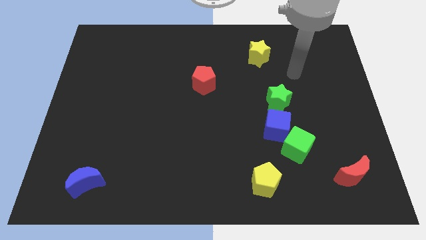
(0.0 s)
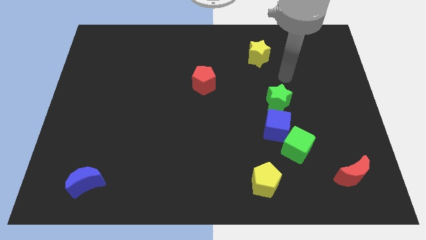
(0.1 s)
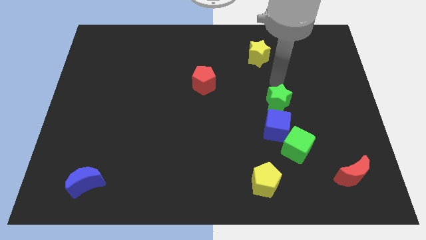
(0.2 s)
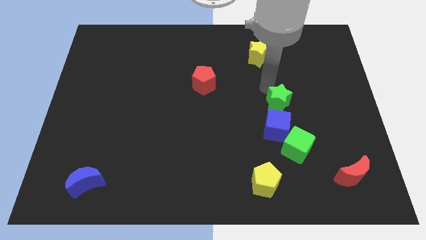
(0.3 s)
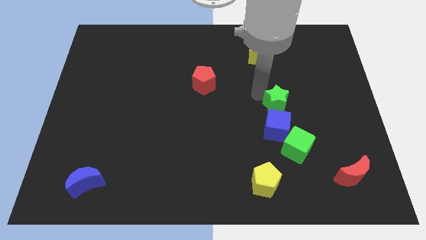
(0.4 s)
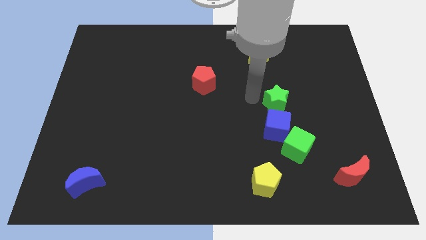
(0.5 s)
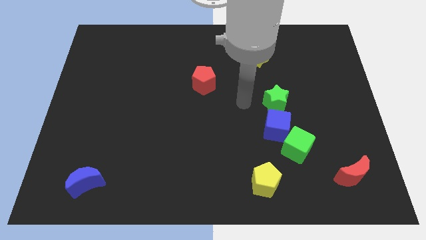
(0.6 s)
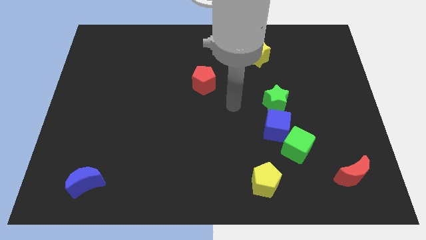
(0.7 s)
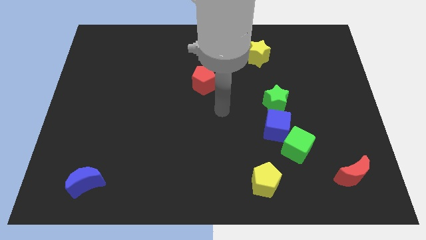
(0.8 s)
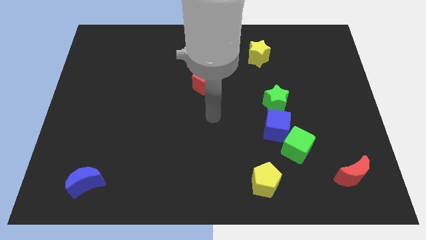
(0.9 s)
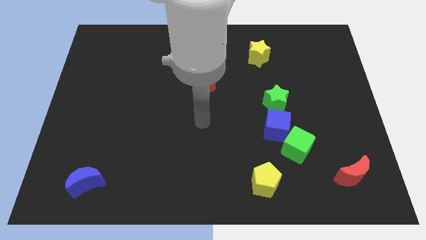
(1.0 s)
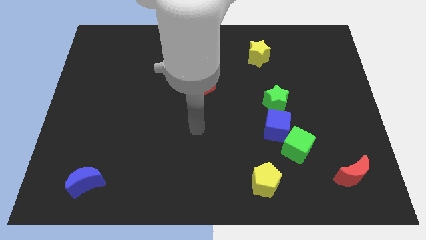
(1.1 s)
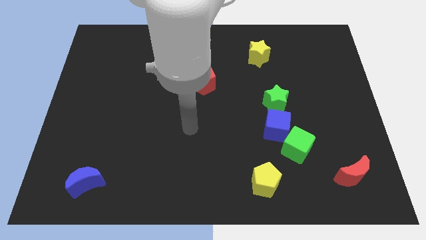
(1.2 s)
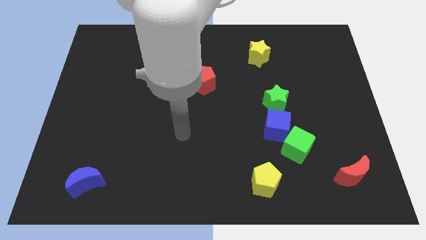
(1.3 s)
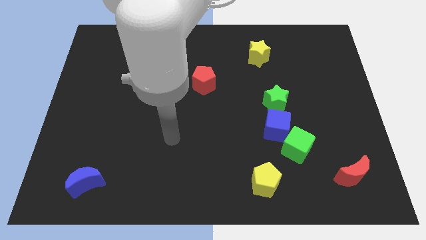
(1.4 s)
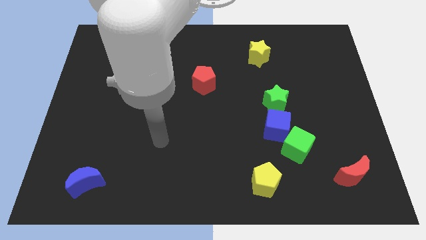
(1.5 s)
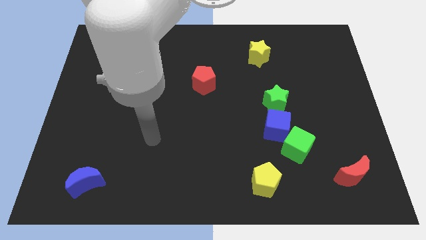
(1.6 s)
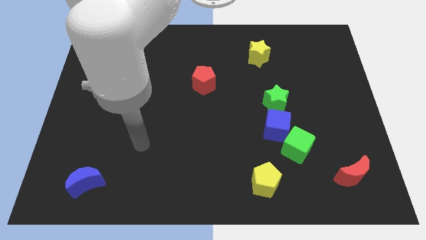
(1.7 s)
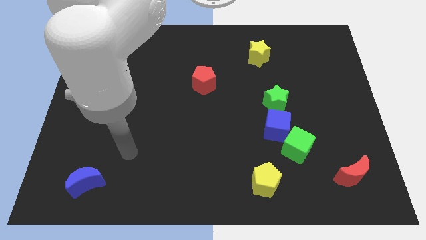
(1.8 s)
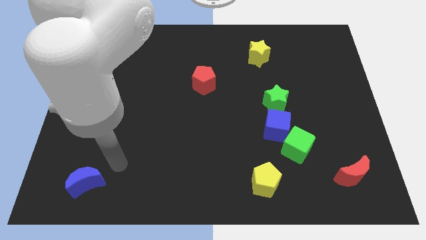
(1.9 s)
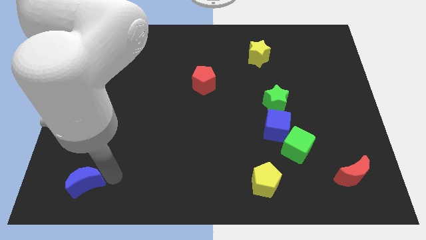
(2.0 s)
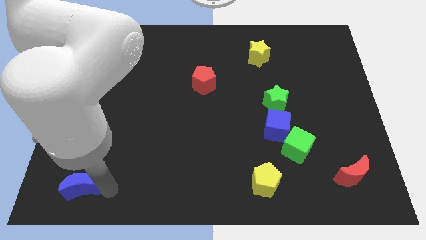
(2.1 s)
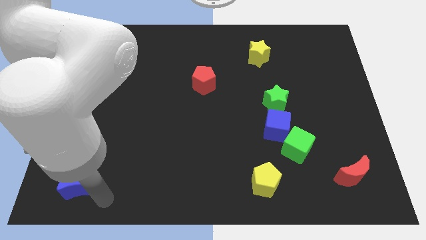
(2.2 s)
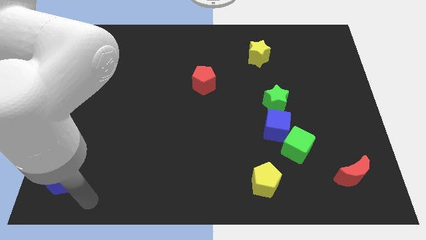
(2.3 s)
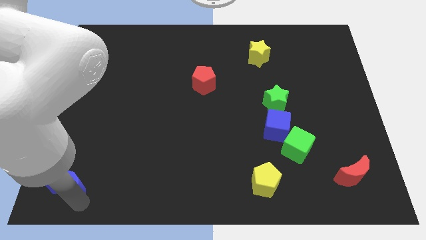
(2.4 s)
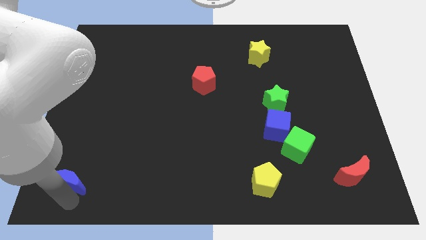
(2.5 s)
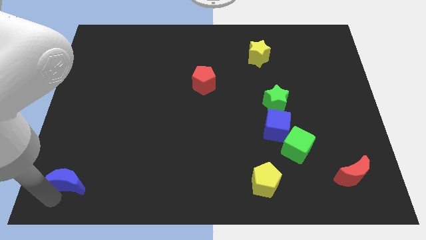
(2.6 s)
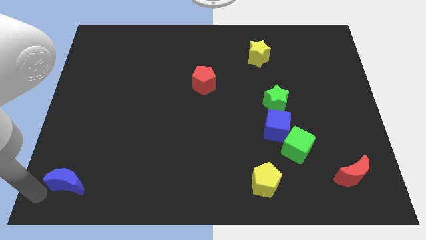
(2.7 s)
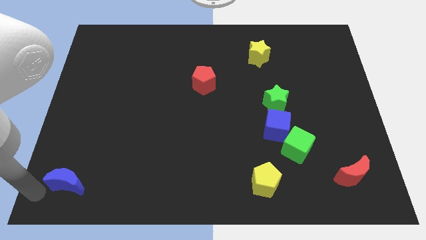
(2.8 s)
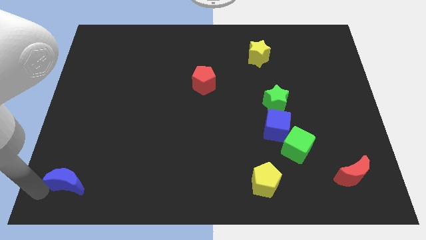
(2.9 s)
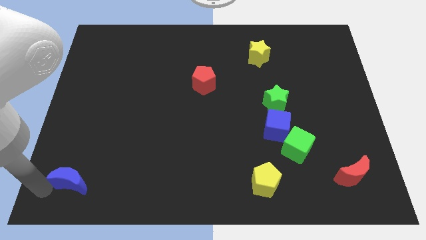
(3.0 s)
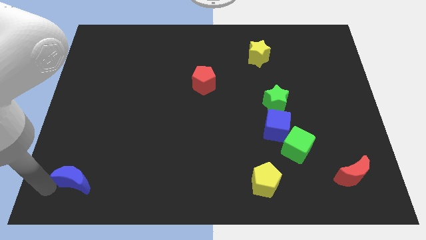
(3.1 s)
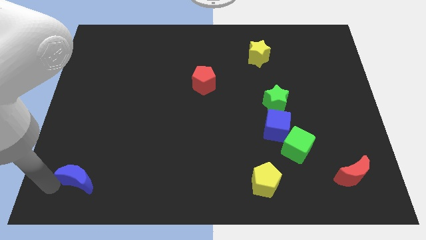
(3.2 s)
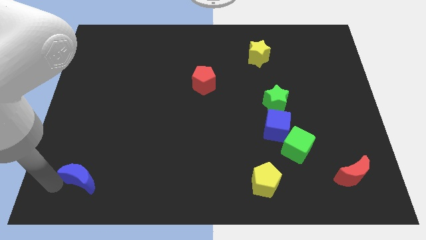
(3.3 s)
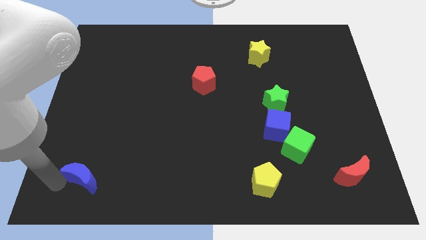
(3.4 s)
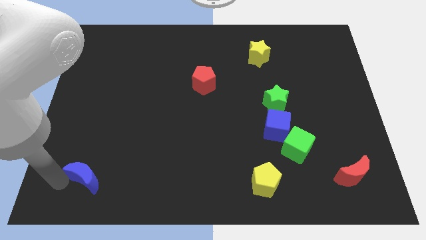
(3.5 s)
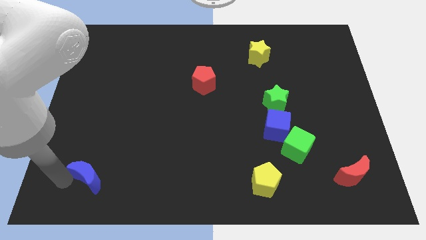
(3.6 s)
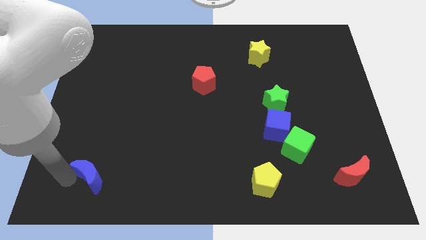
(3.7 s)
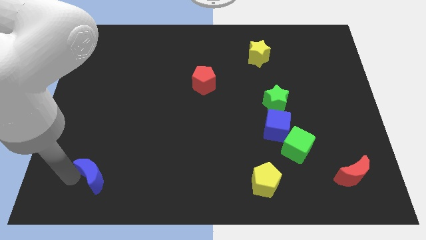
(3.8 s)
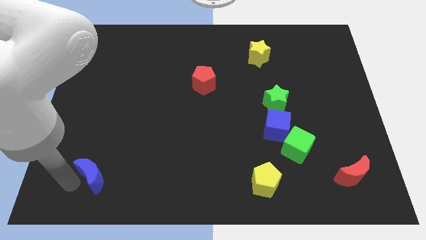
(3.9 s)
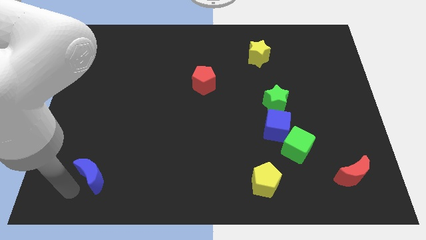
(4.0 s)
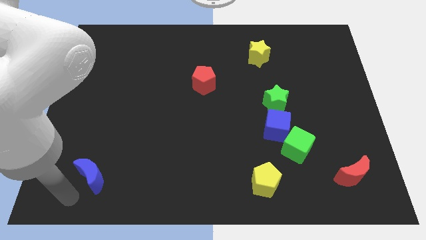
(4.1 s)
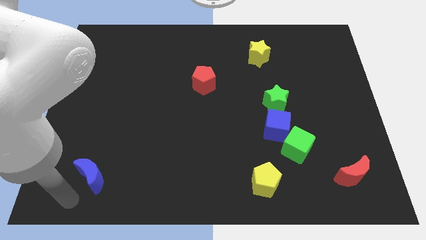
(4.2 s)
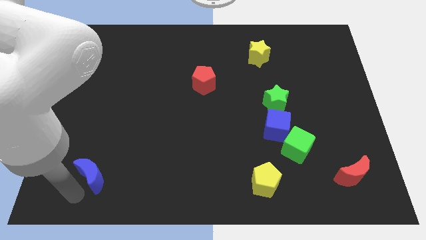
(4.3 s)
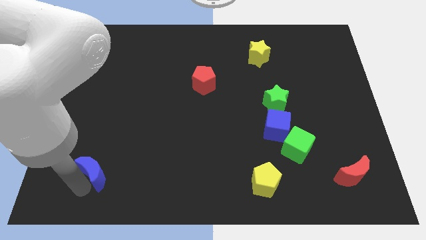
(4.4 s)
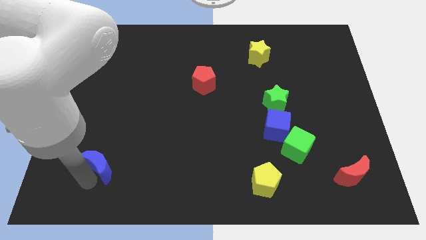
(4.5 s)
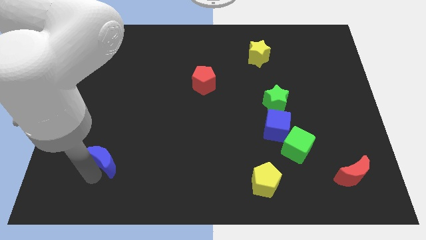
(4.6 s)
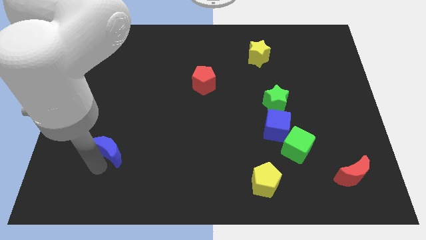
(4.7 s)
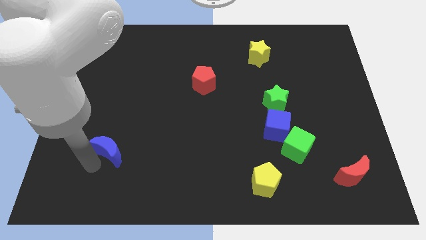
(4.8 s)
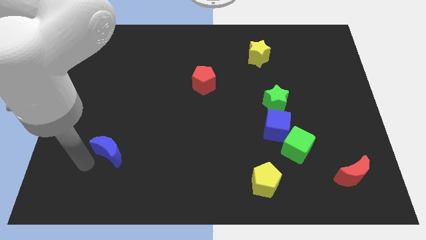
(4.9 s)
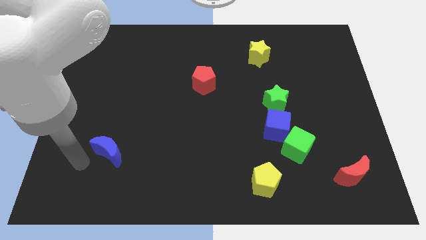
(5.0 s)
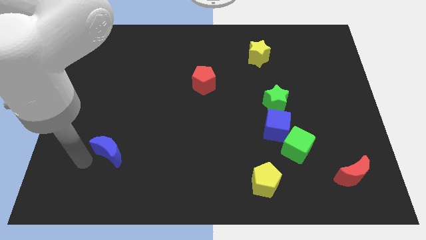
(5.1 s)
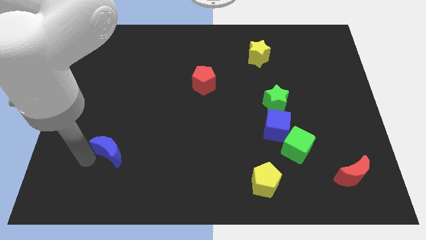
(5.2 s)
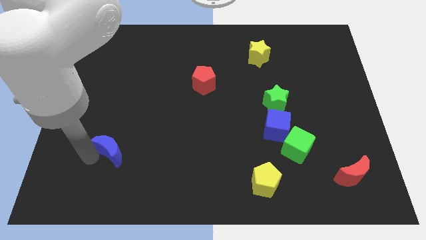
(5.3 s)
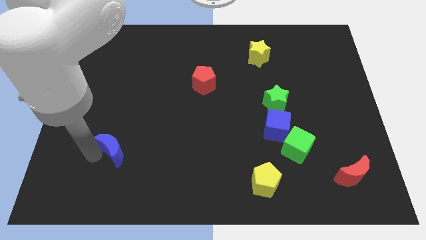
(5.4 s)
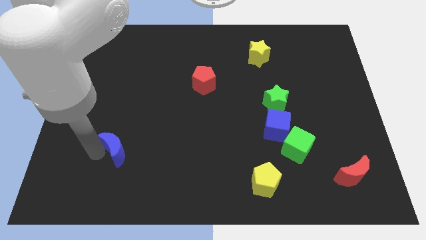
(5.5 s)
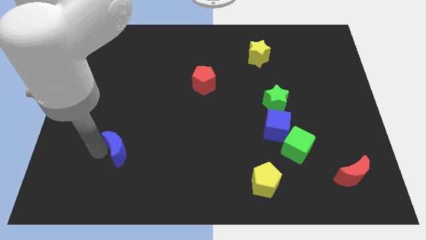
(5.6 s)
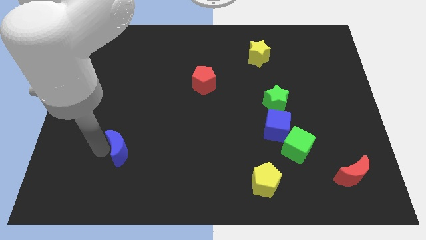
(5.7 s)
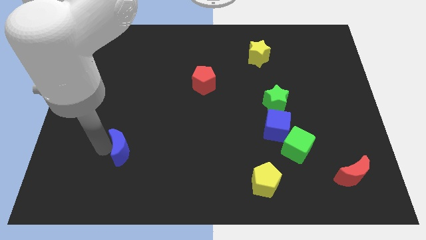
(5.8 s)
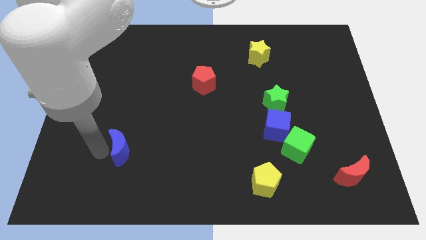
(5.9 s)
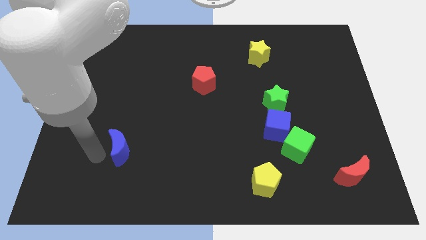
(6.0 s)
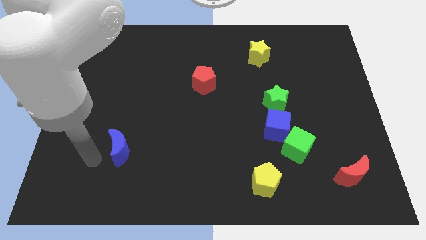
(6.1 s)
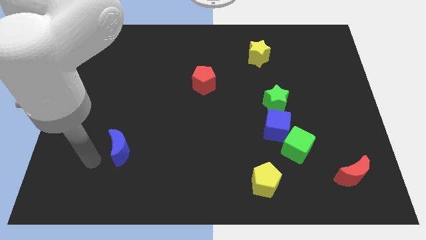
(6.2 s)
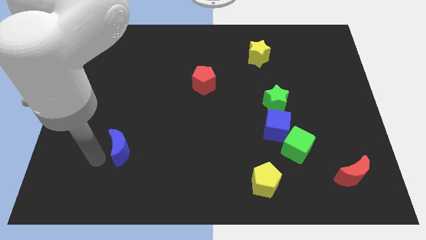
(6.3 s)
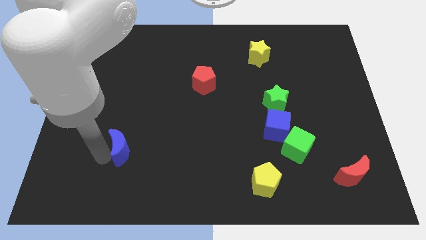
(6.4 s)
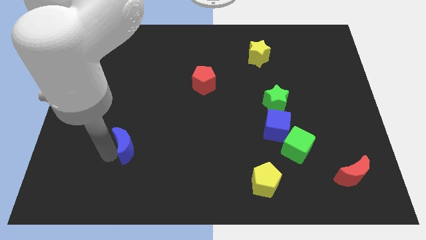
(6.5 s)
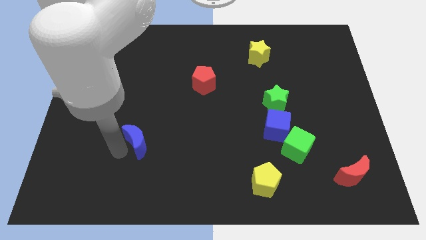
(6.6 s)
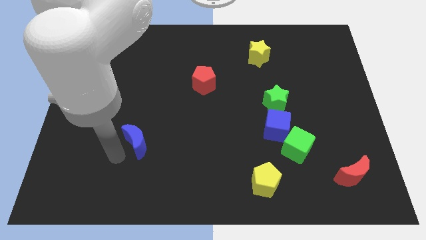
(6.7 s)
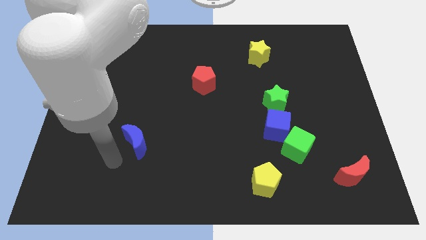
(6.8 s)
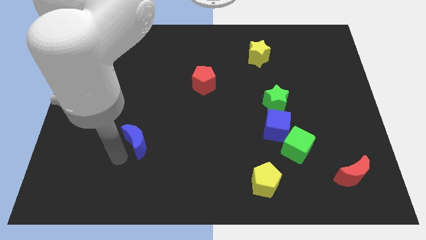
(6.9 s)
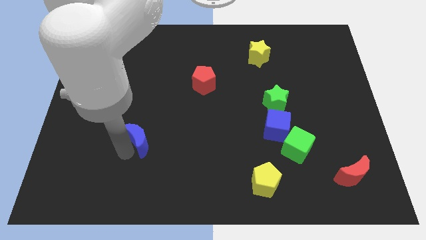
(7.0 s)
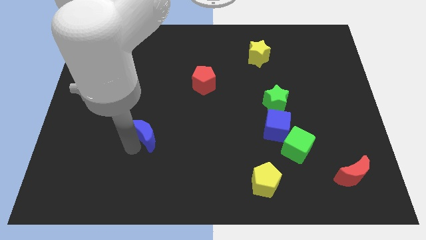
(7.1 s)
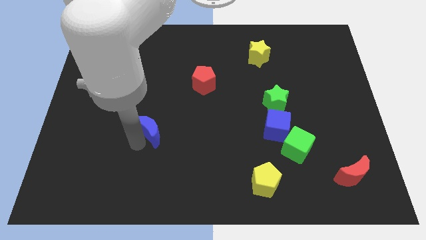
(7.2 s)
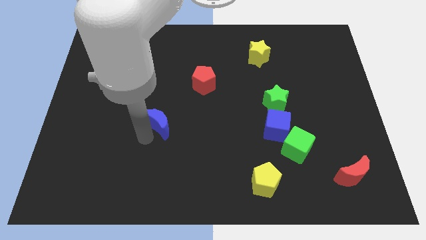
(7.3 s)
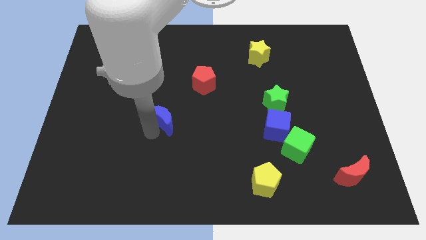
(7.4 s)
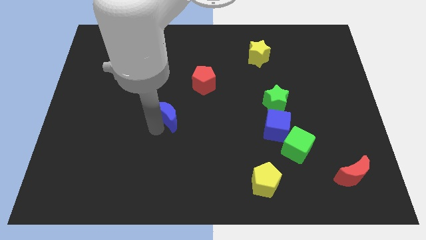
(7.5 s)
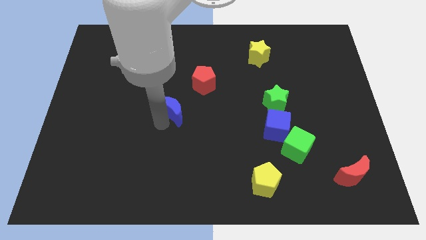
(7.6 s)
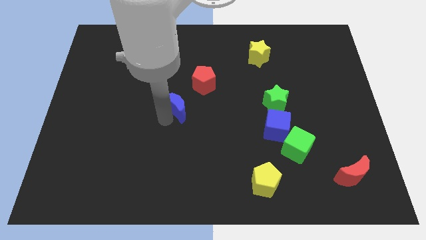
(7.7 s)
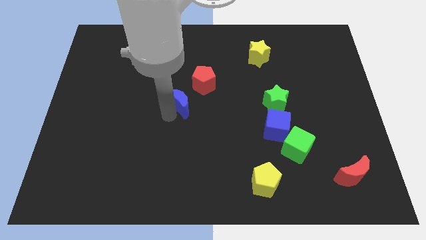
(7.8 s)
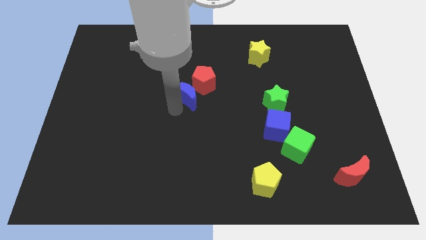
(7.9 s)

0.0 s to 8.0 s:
slide the blue moon towards the red pentagon
